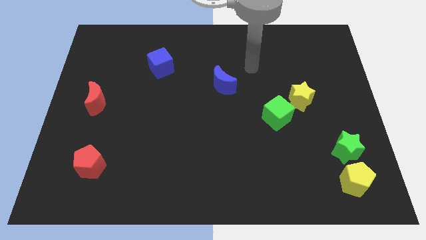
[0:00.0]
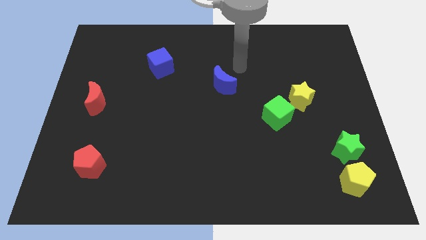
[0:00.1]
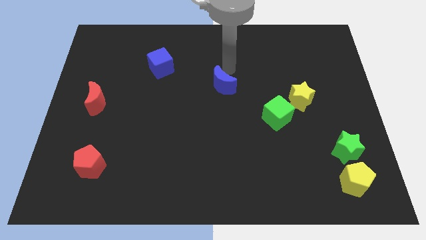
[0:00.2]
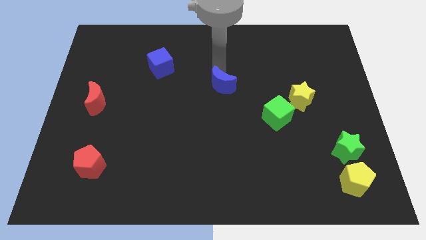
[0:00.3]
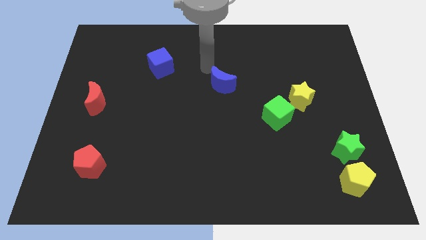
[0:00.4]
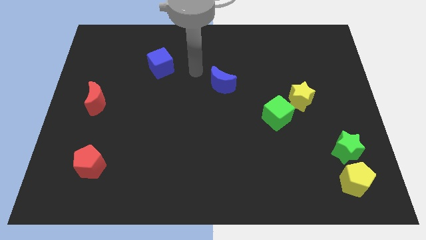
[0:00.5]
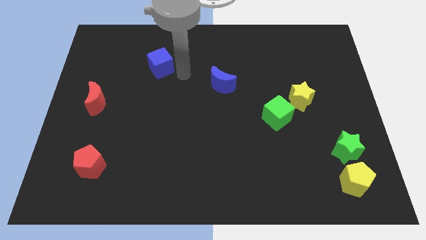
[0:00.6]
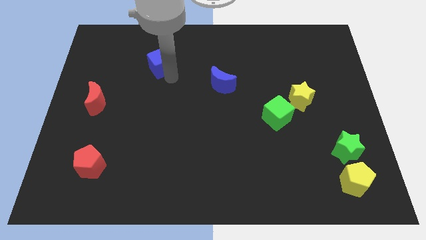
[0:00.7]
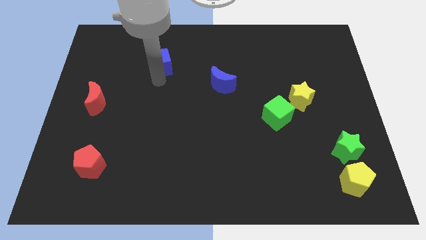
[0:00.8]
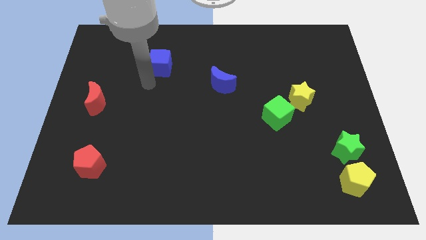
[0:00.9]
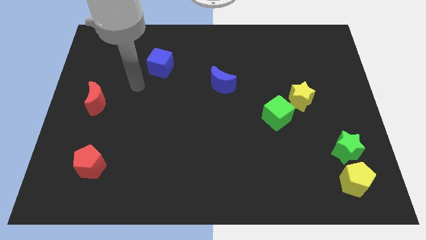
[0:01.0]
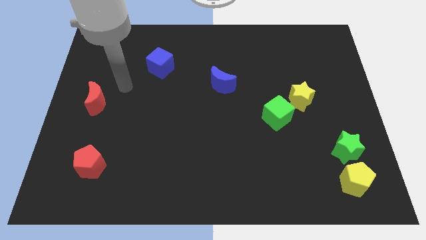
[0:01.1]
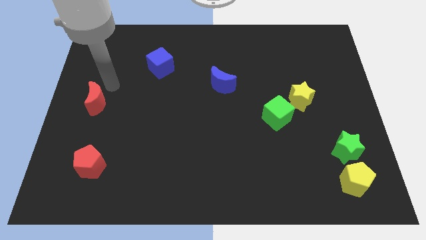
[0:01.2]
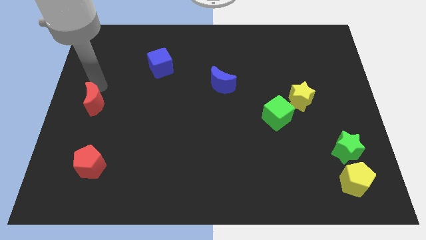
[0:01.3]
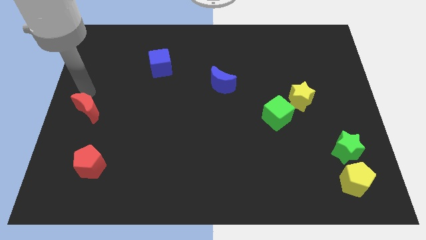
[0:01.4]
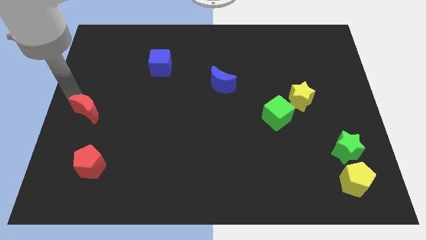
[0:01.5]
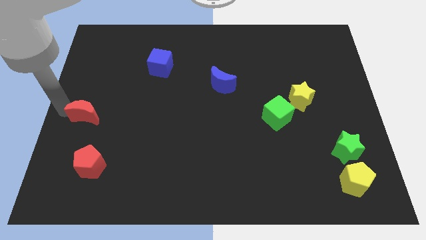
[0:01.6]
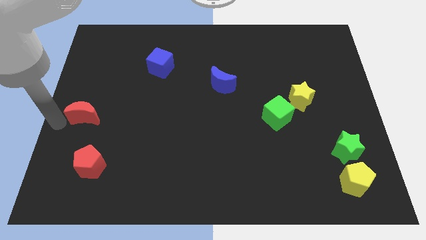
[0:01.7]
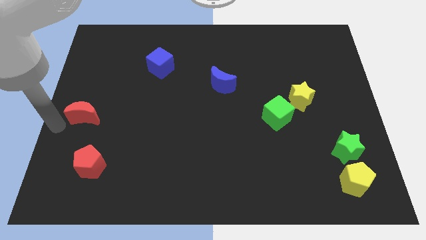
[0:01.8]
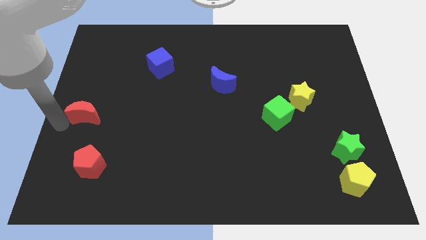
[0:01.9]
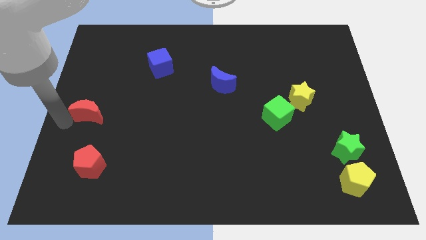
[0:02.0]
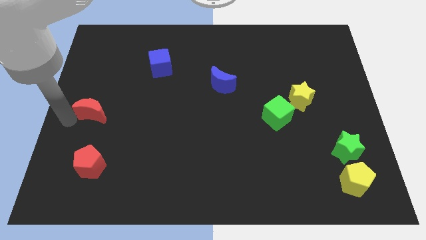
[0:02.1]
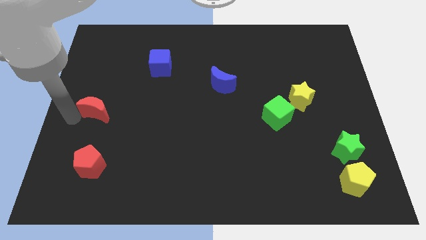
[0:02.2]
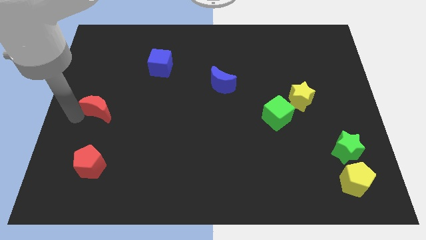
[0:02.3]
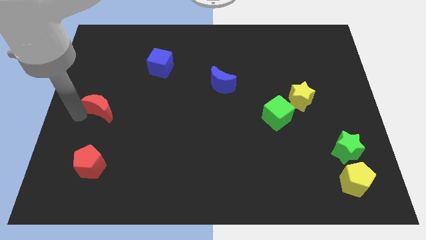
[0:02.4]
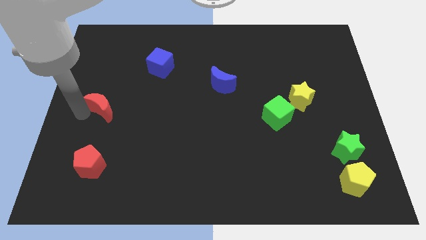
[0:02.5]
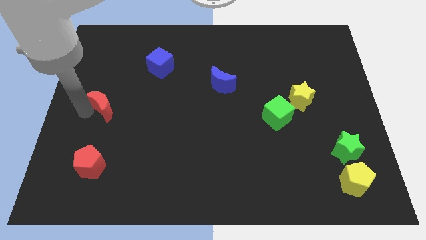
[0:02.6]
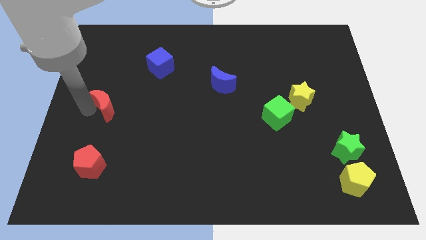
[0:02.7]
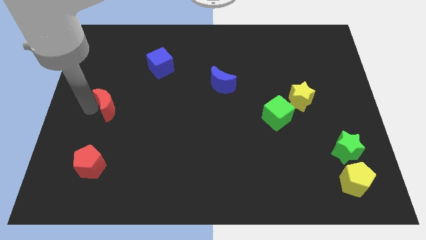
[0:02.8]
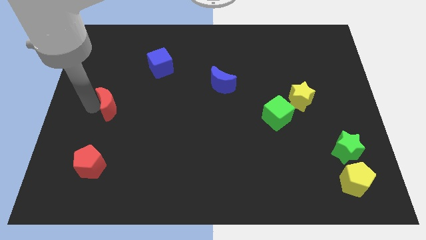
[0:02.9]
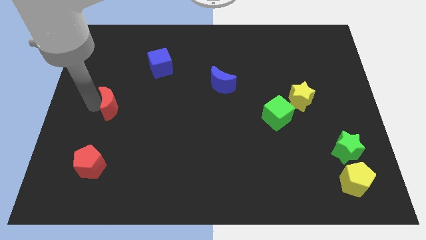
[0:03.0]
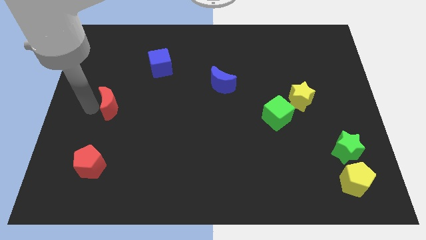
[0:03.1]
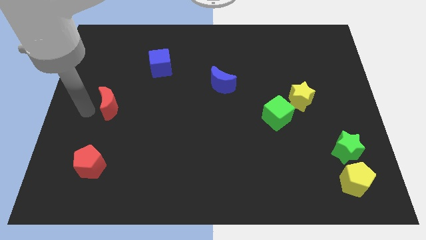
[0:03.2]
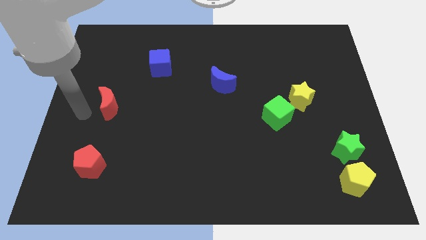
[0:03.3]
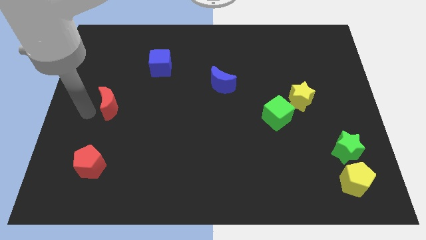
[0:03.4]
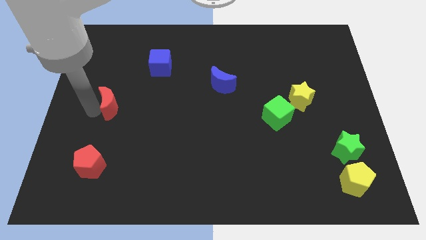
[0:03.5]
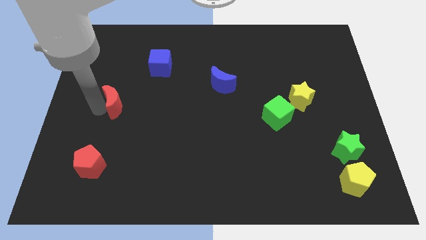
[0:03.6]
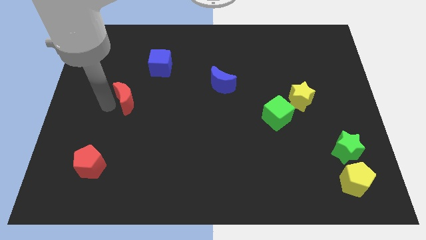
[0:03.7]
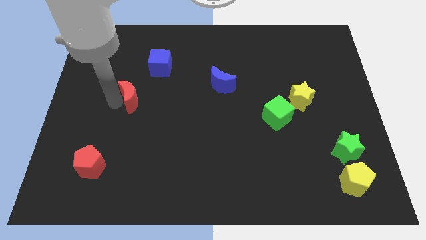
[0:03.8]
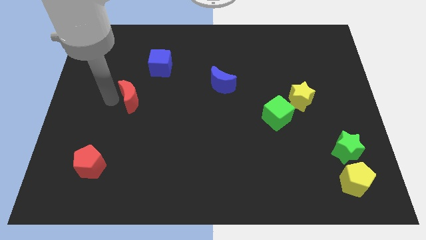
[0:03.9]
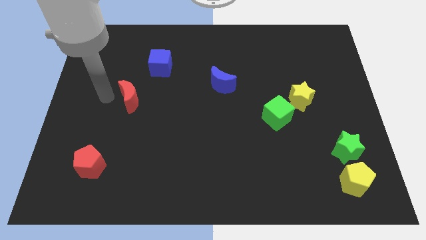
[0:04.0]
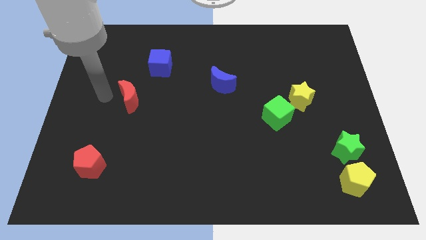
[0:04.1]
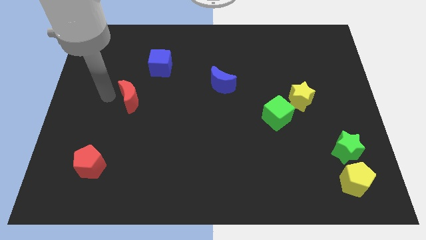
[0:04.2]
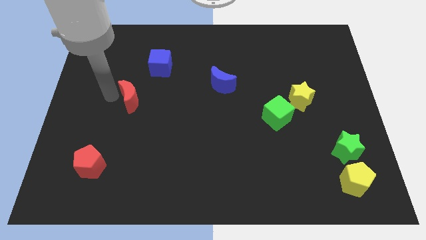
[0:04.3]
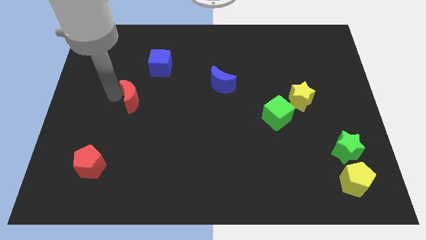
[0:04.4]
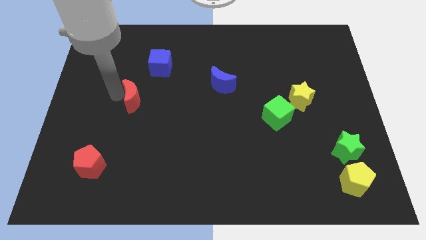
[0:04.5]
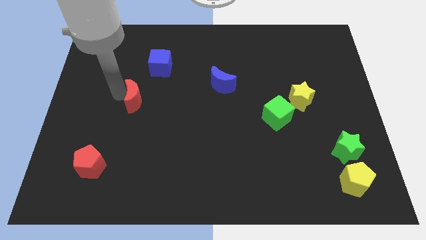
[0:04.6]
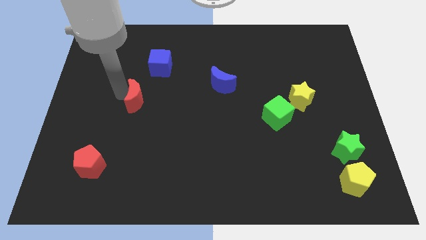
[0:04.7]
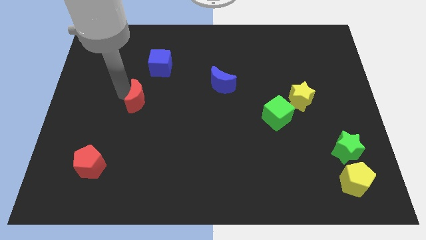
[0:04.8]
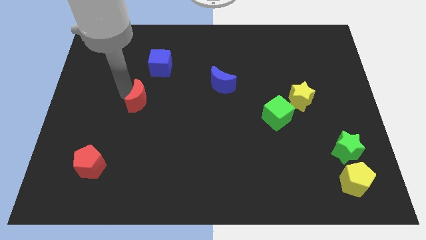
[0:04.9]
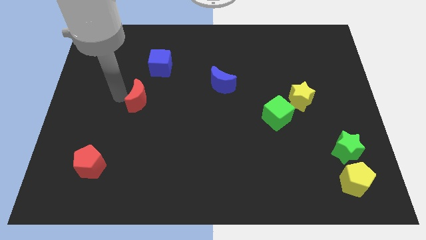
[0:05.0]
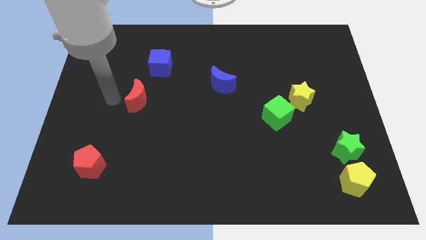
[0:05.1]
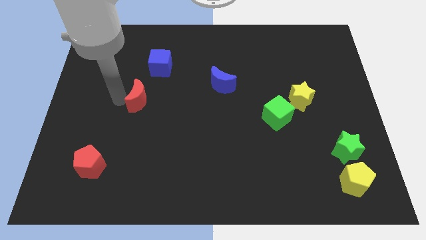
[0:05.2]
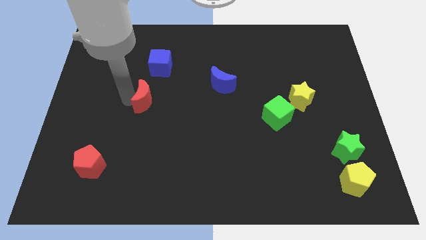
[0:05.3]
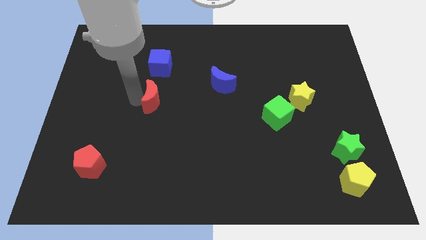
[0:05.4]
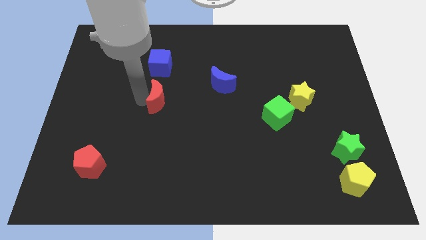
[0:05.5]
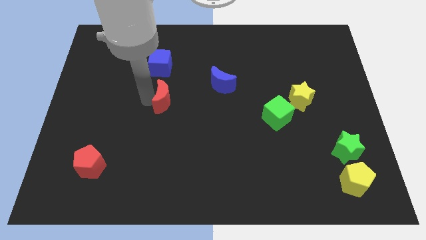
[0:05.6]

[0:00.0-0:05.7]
put the red moon to the center

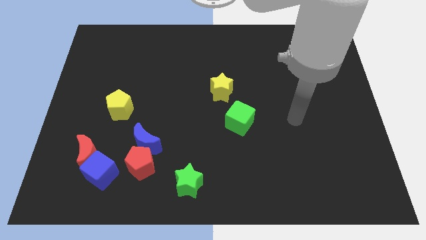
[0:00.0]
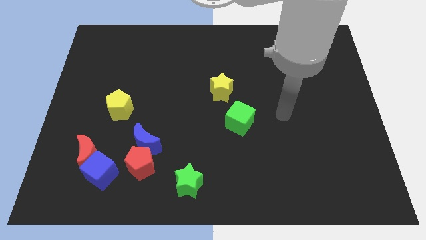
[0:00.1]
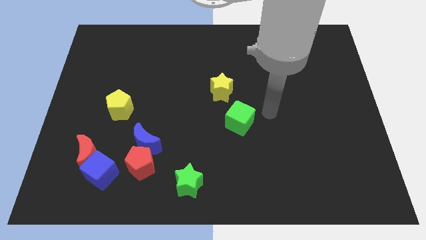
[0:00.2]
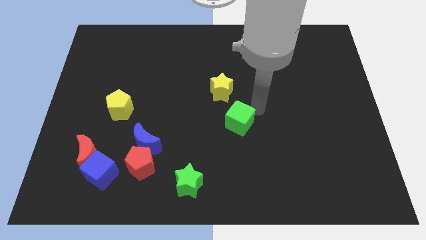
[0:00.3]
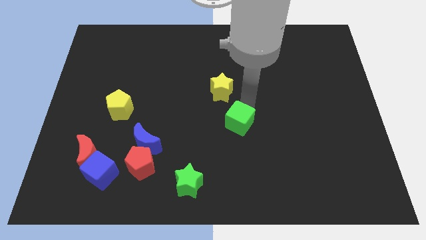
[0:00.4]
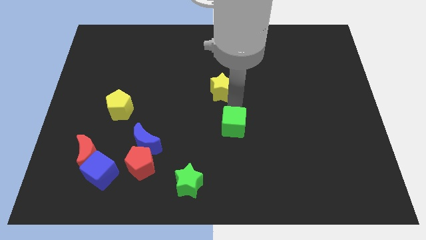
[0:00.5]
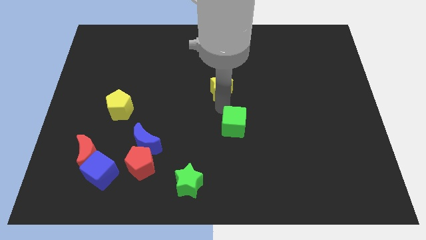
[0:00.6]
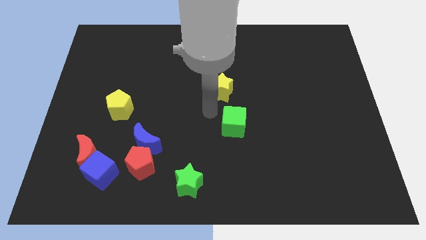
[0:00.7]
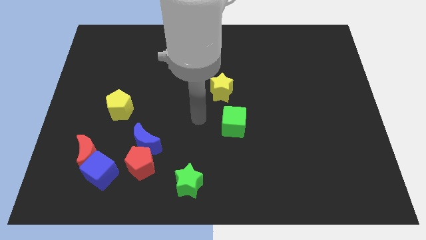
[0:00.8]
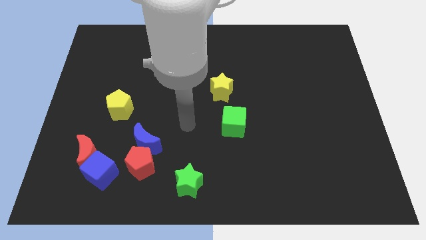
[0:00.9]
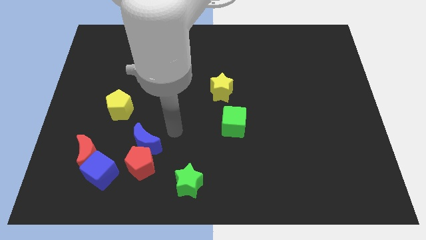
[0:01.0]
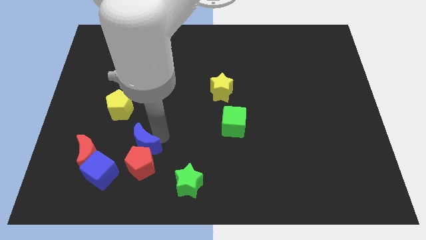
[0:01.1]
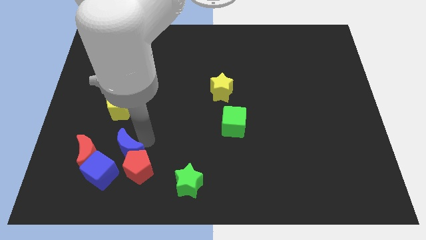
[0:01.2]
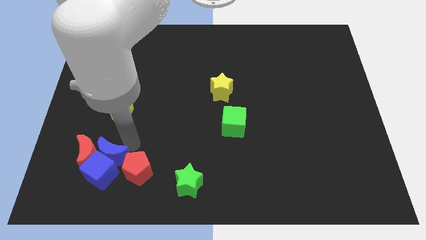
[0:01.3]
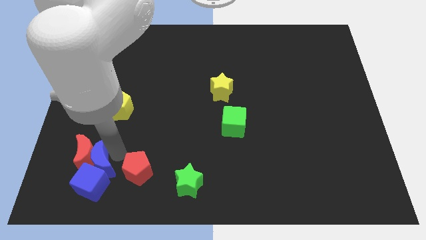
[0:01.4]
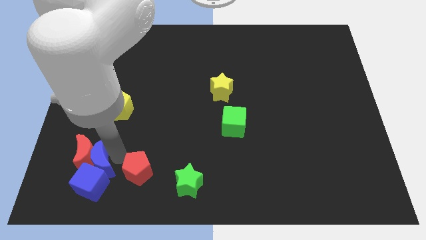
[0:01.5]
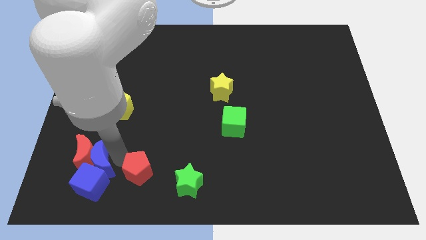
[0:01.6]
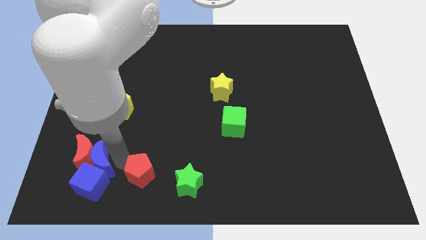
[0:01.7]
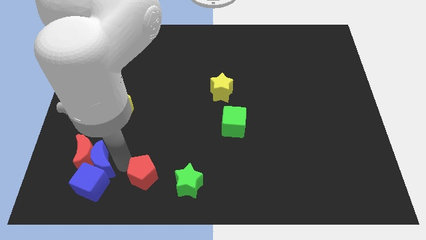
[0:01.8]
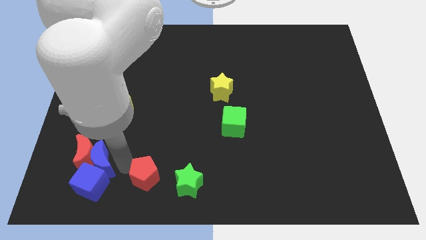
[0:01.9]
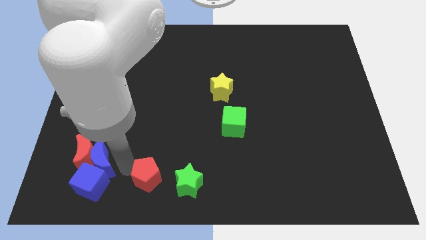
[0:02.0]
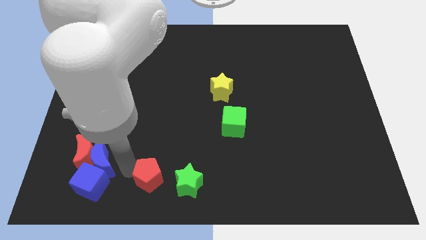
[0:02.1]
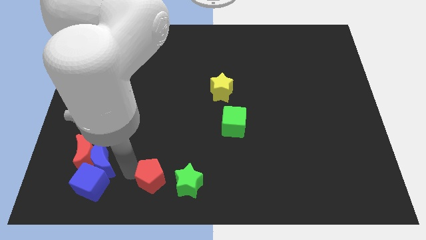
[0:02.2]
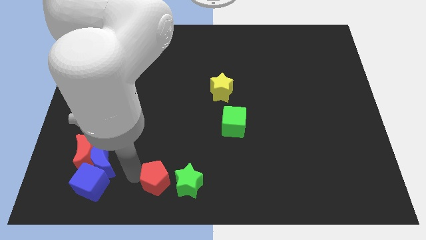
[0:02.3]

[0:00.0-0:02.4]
move the red pentagon to the bottom
